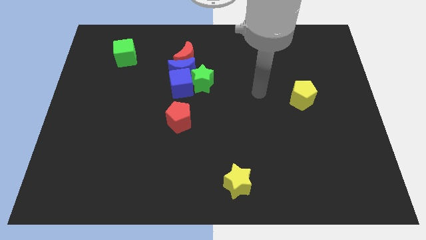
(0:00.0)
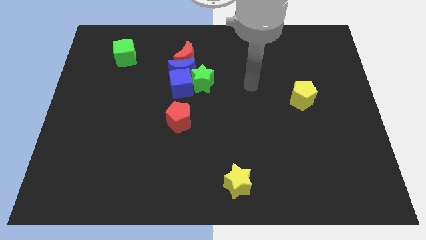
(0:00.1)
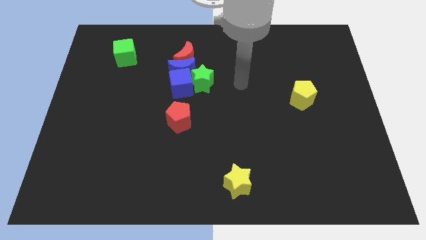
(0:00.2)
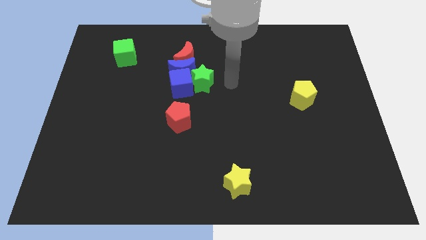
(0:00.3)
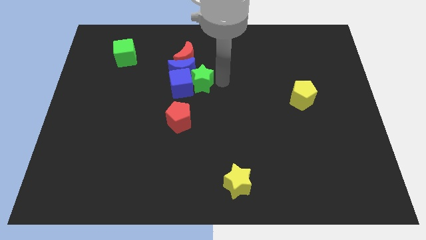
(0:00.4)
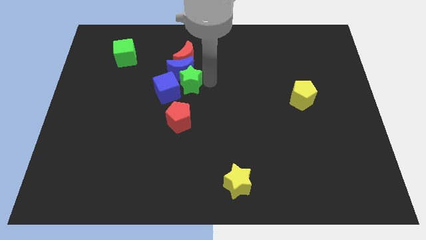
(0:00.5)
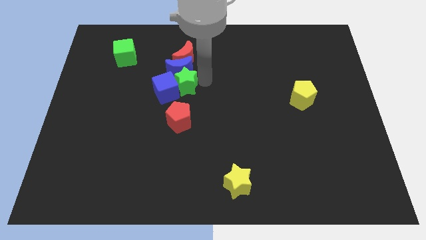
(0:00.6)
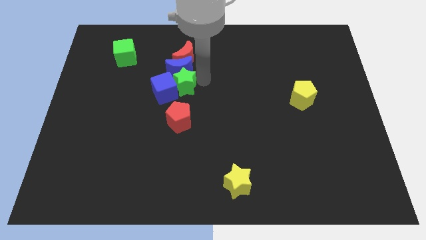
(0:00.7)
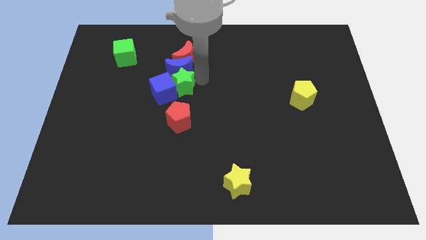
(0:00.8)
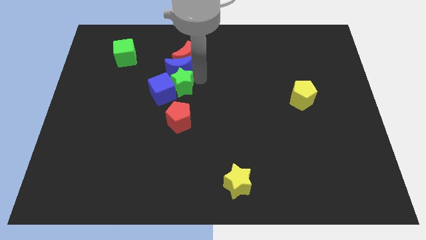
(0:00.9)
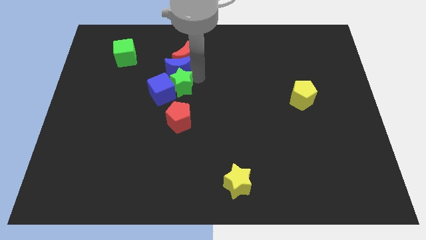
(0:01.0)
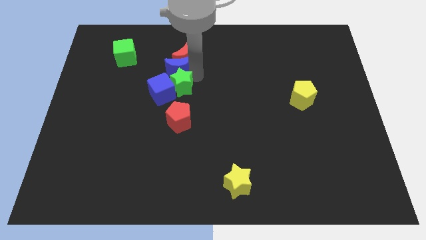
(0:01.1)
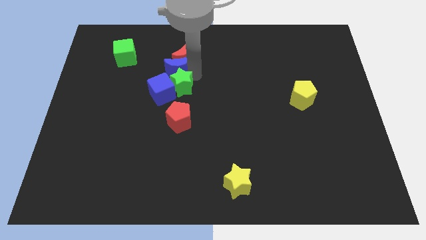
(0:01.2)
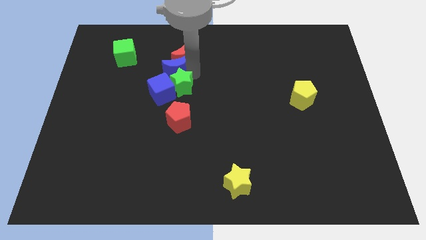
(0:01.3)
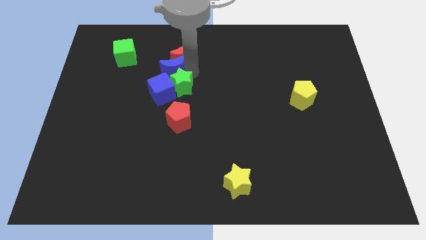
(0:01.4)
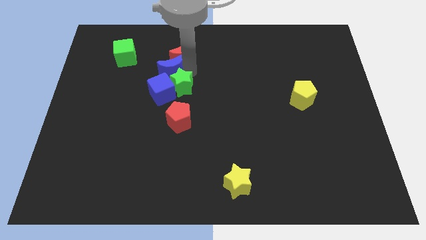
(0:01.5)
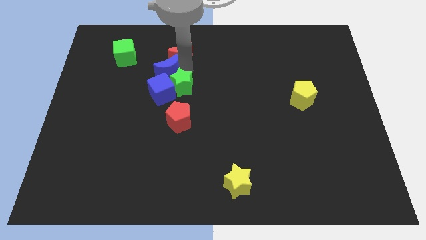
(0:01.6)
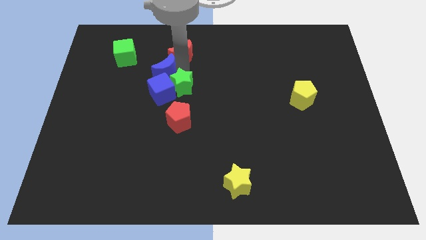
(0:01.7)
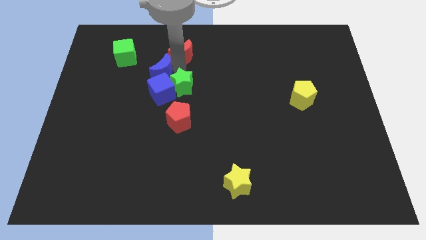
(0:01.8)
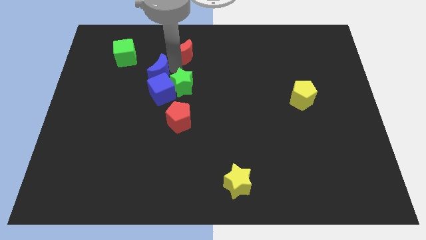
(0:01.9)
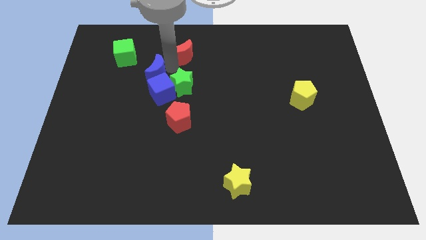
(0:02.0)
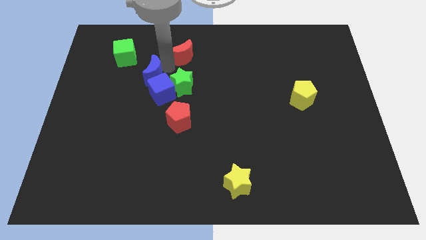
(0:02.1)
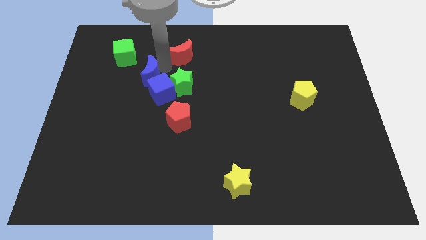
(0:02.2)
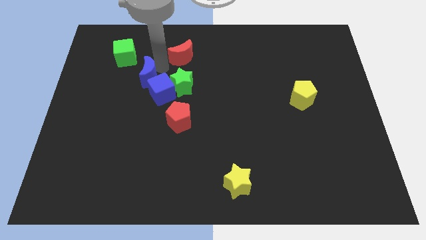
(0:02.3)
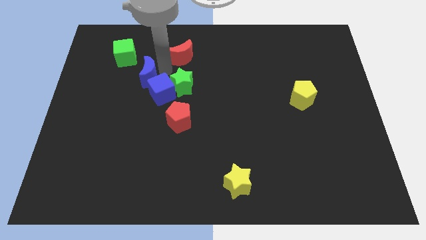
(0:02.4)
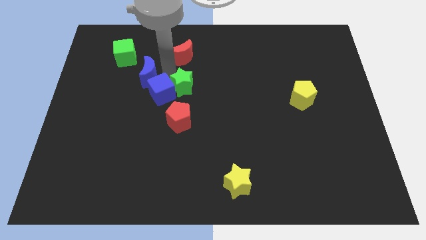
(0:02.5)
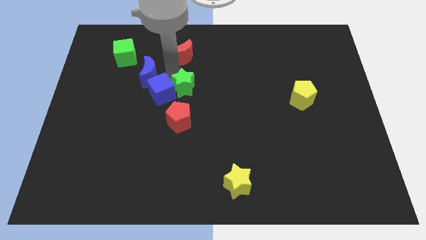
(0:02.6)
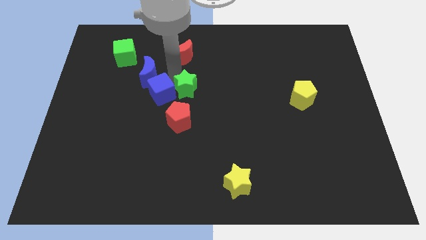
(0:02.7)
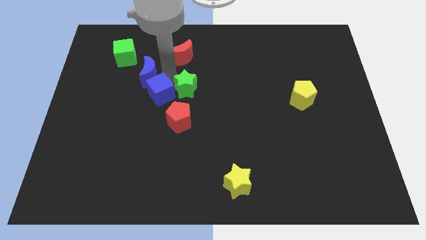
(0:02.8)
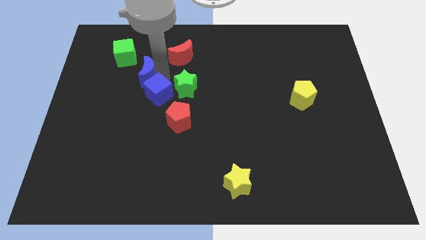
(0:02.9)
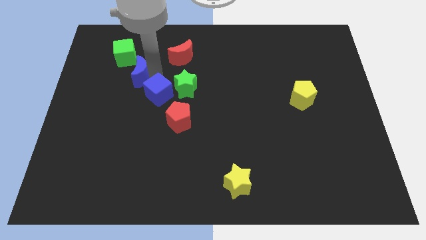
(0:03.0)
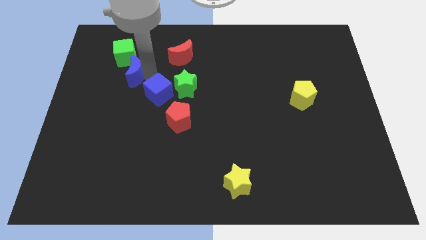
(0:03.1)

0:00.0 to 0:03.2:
pull the blue moon apart from the red moon, blue cube, and green star

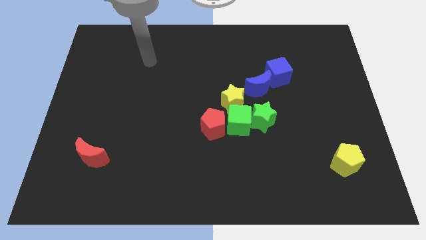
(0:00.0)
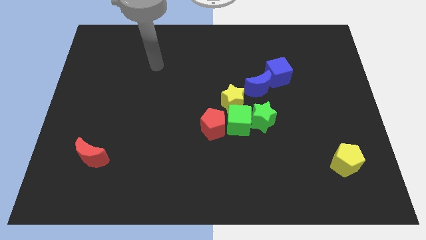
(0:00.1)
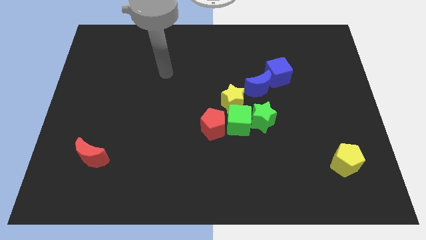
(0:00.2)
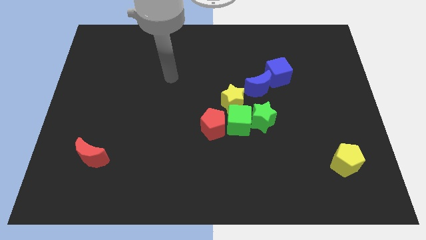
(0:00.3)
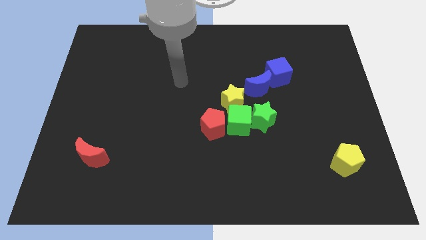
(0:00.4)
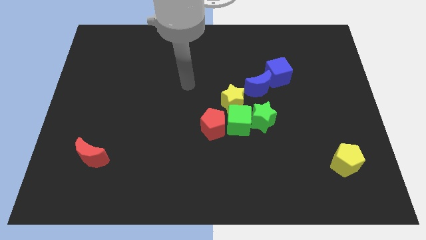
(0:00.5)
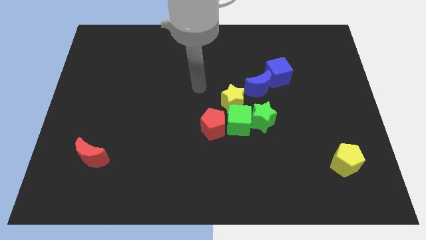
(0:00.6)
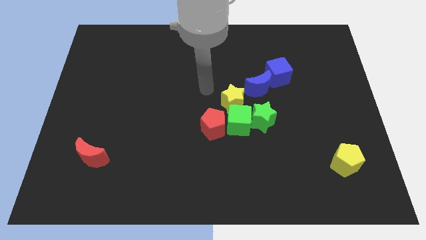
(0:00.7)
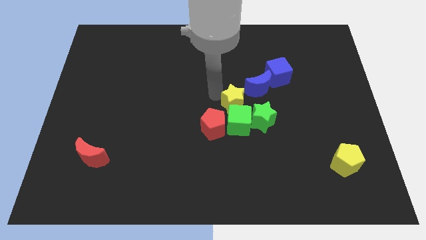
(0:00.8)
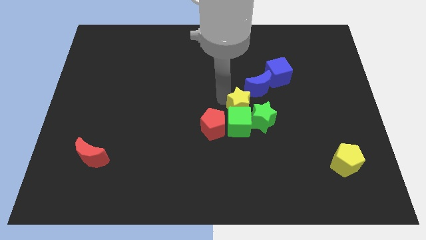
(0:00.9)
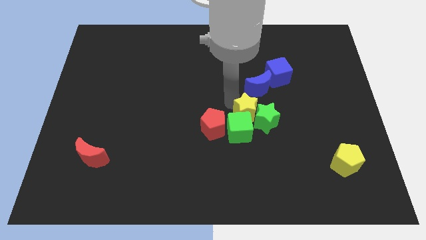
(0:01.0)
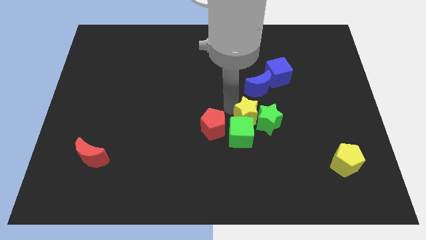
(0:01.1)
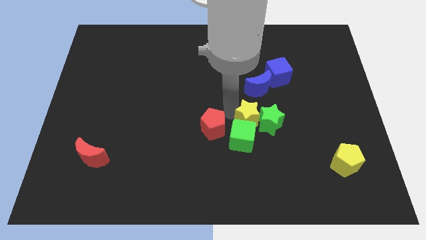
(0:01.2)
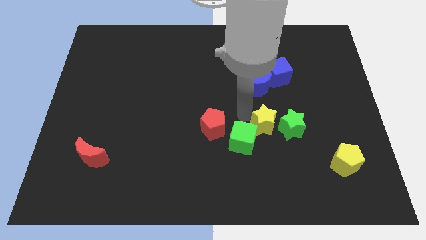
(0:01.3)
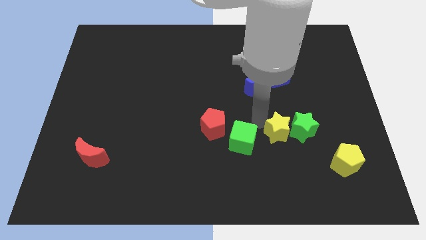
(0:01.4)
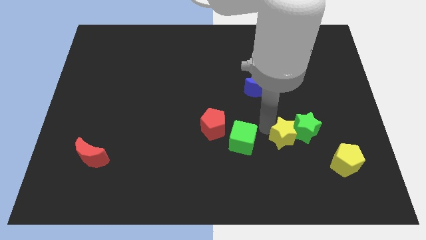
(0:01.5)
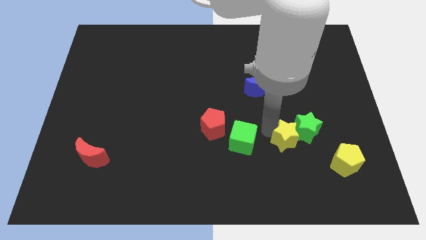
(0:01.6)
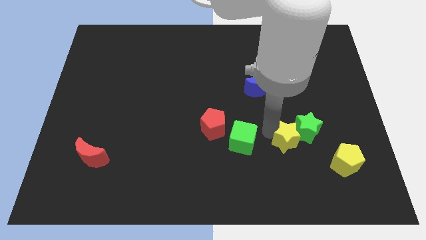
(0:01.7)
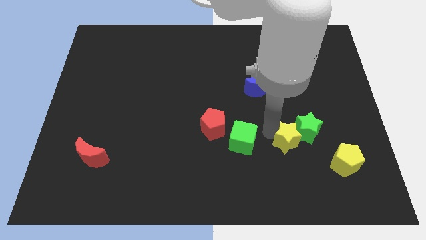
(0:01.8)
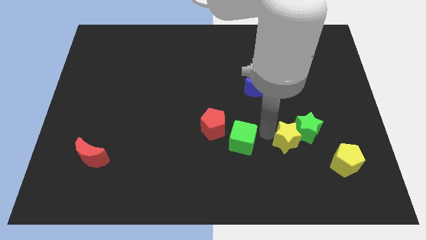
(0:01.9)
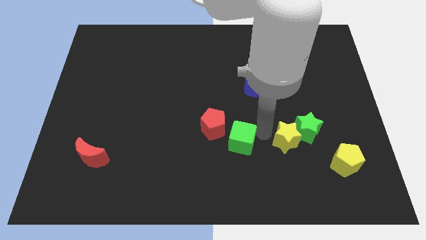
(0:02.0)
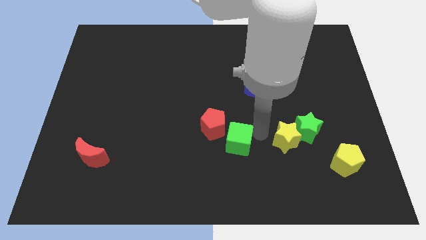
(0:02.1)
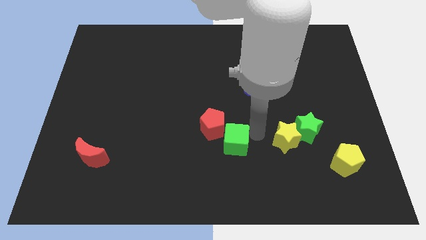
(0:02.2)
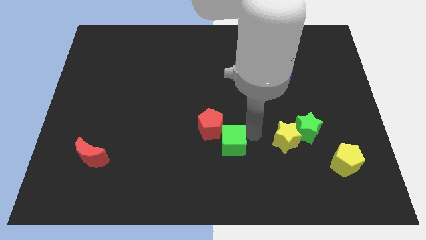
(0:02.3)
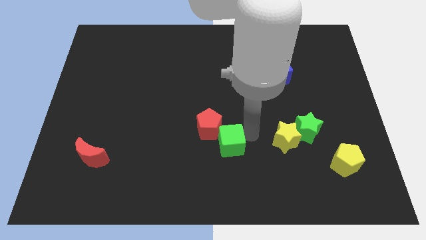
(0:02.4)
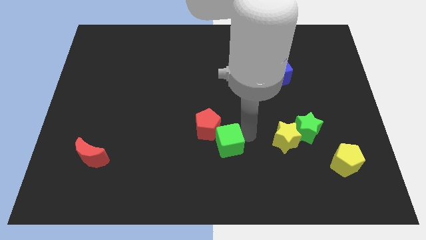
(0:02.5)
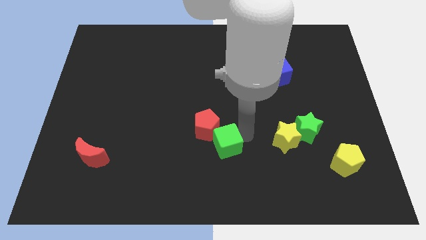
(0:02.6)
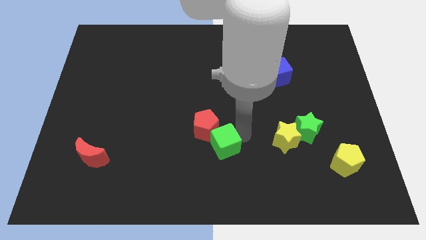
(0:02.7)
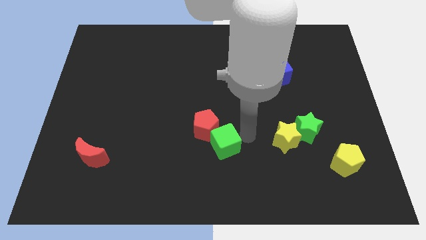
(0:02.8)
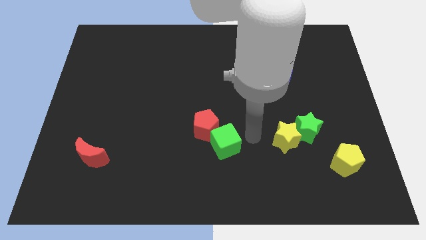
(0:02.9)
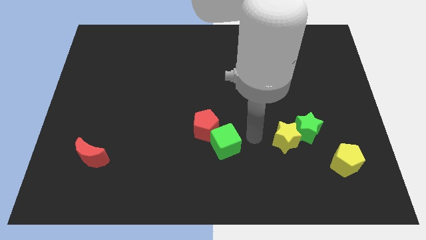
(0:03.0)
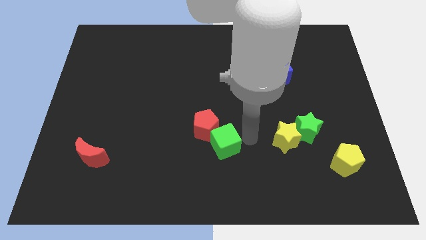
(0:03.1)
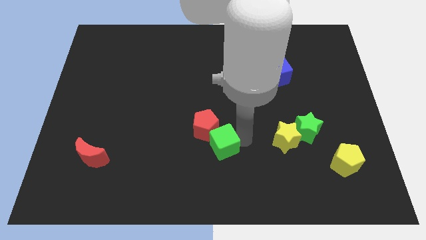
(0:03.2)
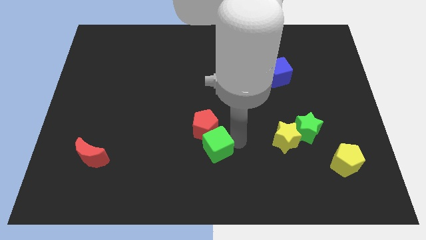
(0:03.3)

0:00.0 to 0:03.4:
move the green cube away from the red pentagon, green star, and yellow star

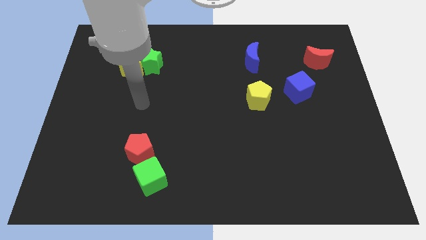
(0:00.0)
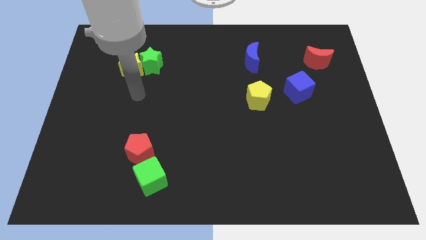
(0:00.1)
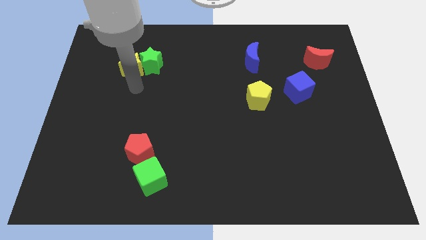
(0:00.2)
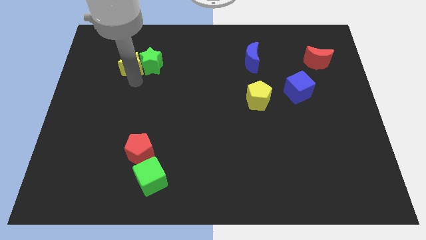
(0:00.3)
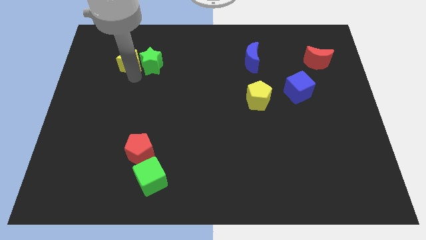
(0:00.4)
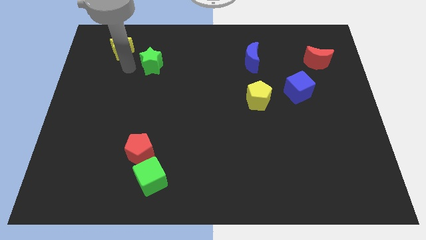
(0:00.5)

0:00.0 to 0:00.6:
move the green star away from the yellow star

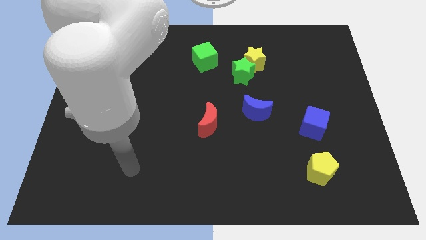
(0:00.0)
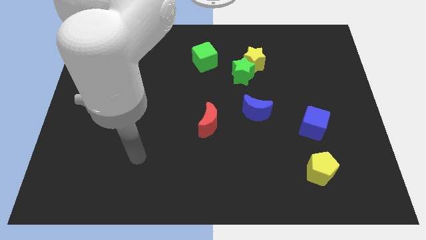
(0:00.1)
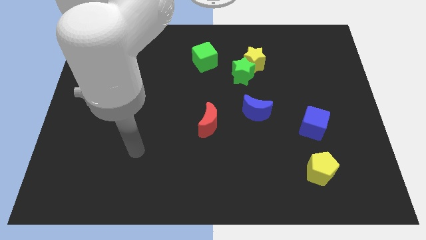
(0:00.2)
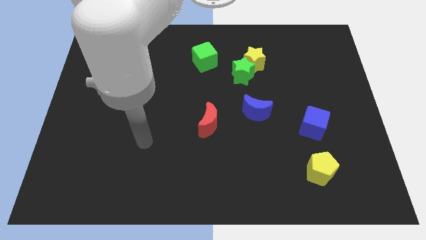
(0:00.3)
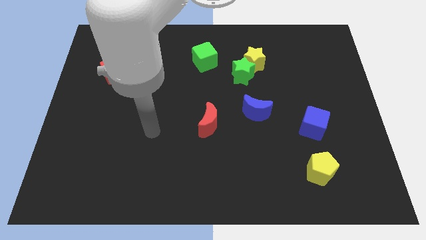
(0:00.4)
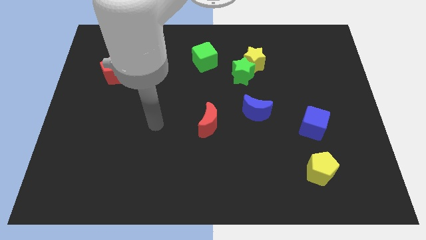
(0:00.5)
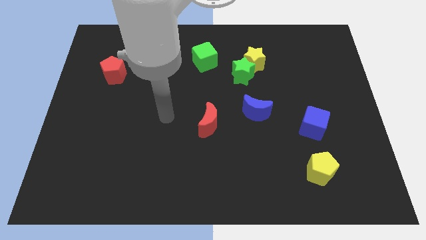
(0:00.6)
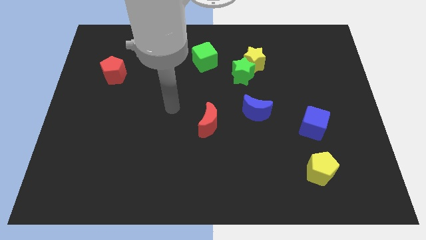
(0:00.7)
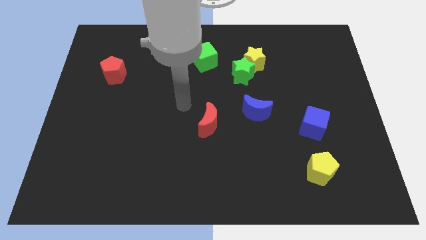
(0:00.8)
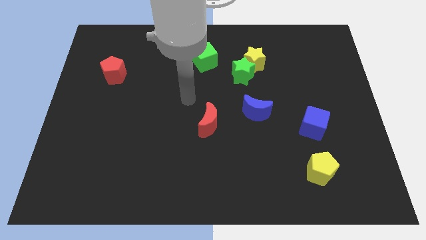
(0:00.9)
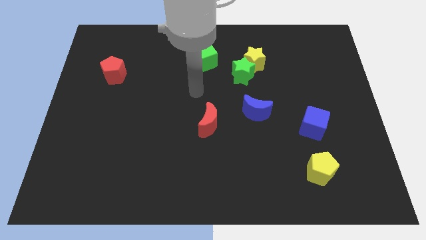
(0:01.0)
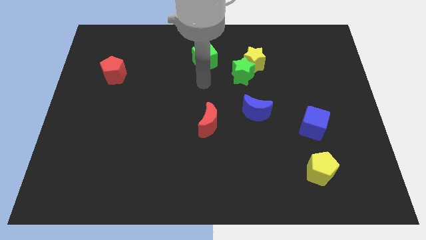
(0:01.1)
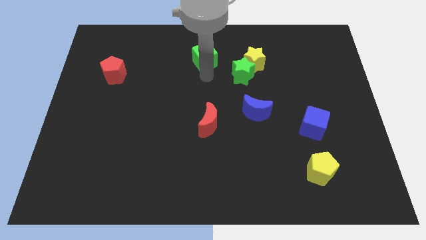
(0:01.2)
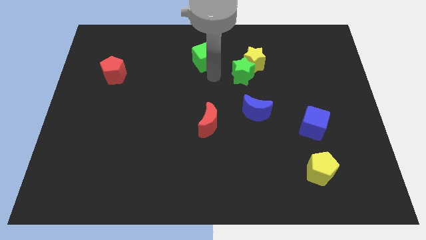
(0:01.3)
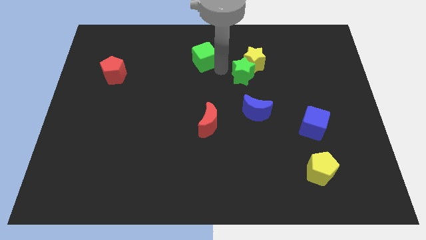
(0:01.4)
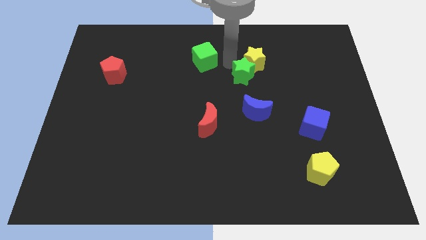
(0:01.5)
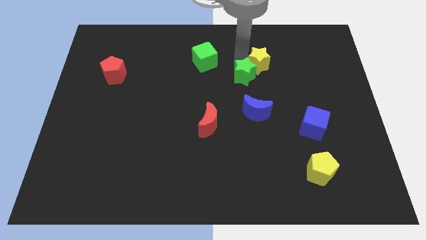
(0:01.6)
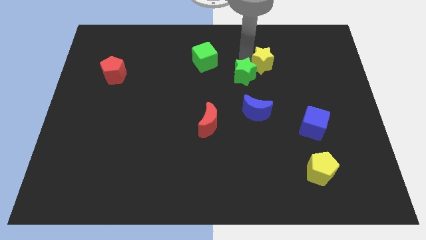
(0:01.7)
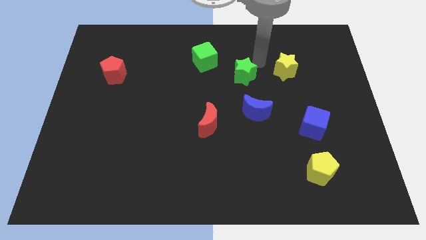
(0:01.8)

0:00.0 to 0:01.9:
separate the green star from the yellow star

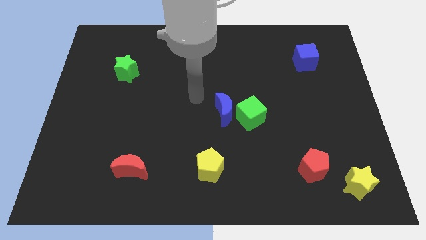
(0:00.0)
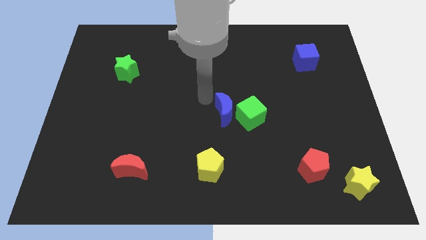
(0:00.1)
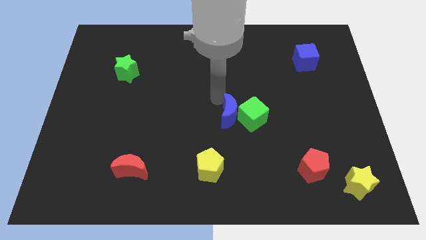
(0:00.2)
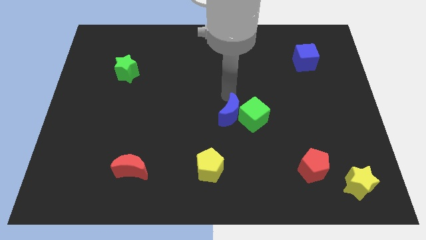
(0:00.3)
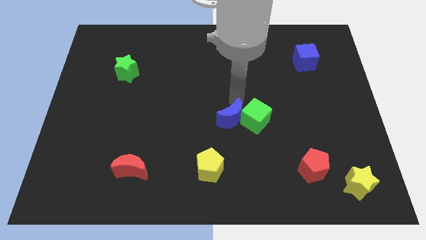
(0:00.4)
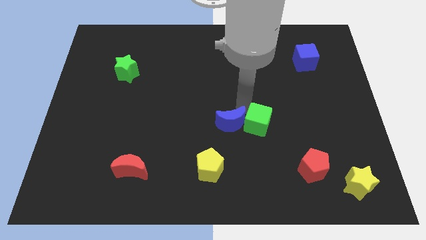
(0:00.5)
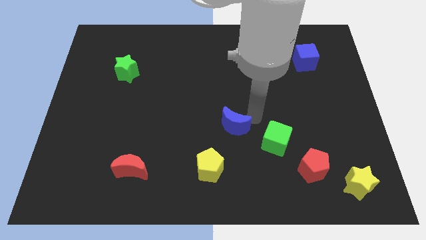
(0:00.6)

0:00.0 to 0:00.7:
move the blue moon away from the green cube
